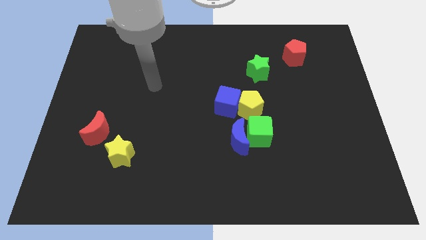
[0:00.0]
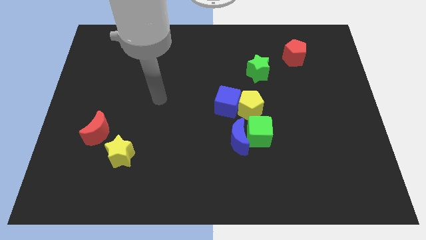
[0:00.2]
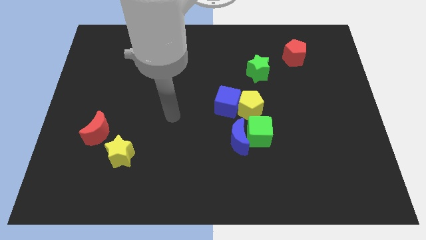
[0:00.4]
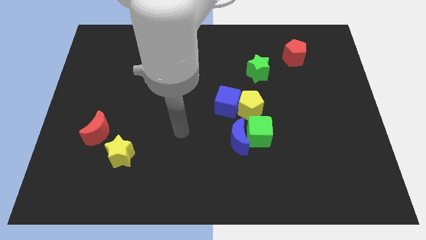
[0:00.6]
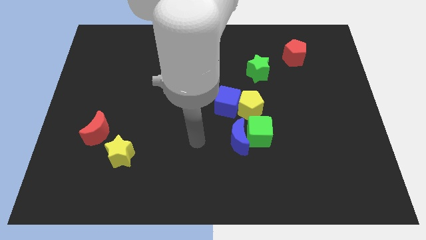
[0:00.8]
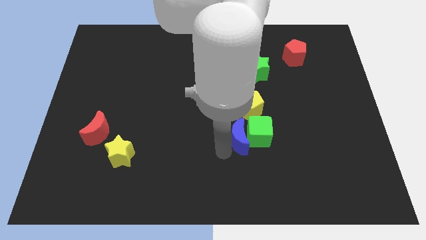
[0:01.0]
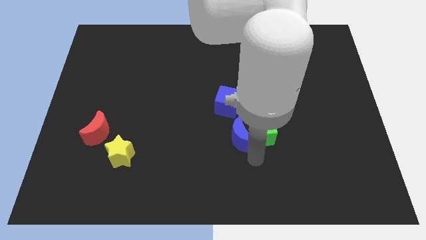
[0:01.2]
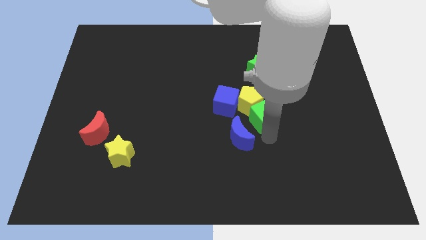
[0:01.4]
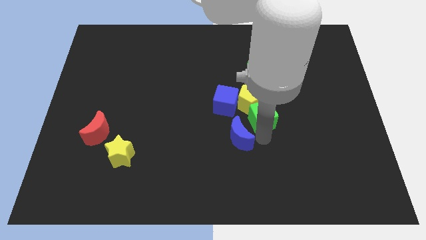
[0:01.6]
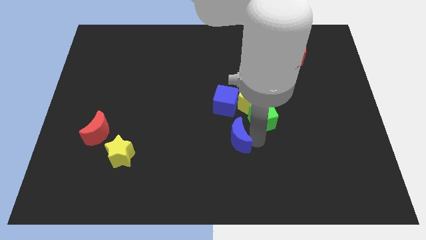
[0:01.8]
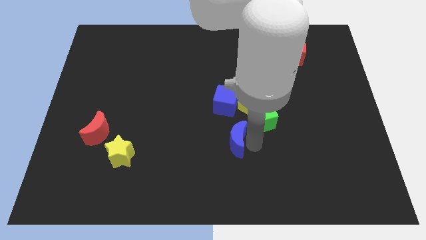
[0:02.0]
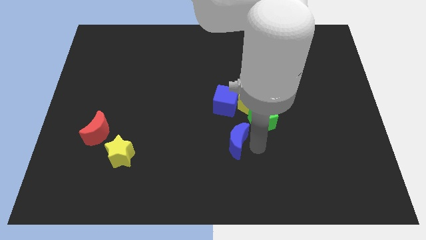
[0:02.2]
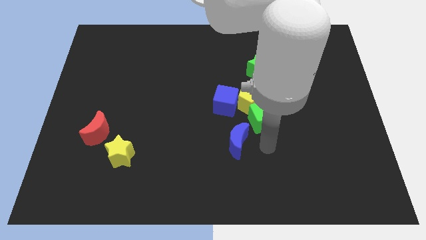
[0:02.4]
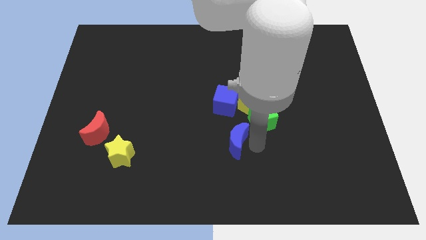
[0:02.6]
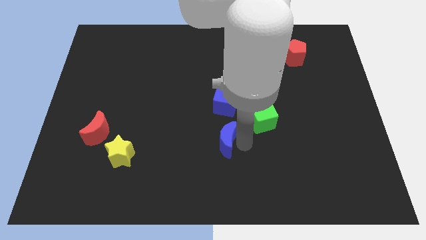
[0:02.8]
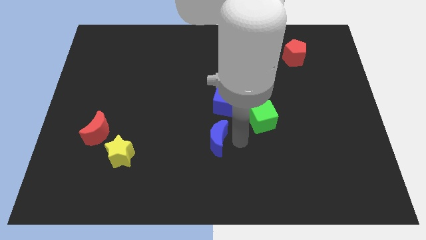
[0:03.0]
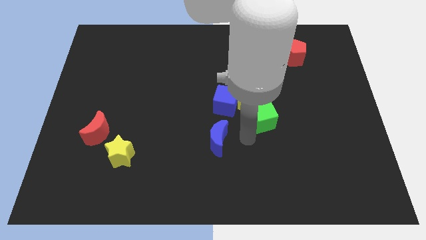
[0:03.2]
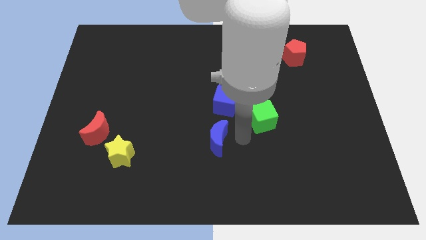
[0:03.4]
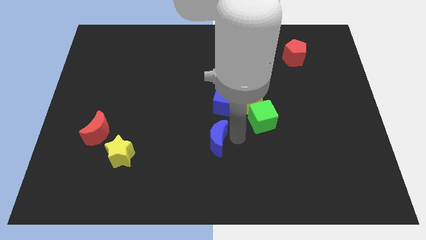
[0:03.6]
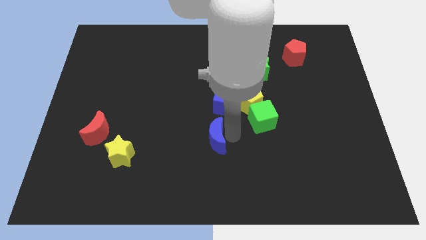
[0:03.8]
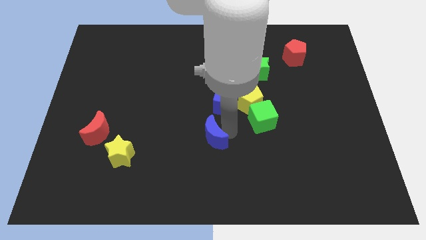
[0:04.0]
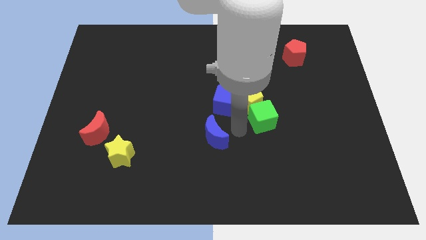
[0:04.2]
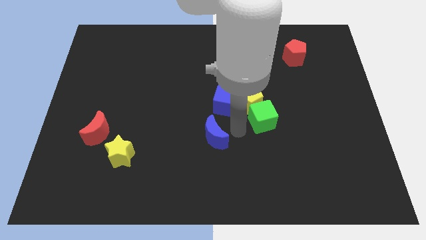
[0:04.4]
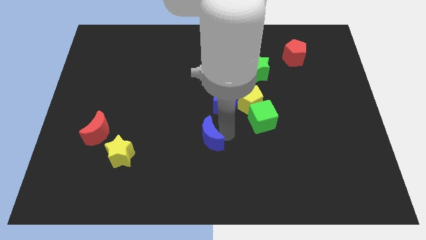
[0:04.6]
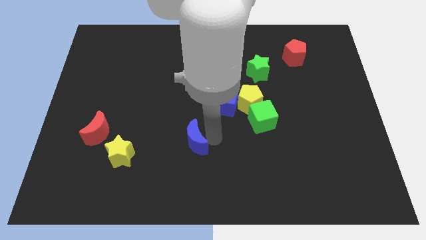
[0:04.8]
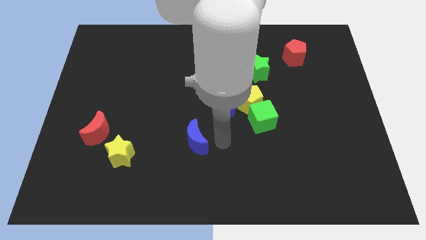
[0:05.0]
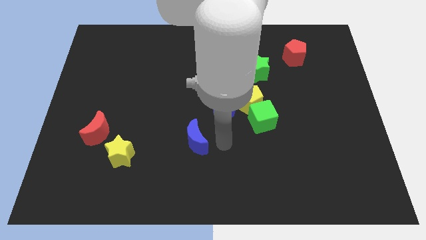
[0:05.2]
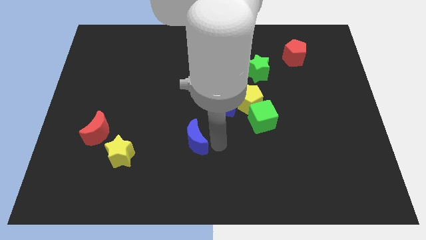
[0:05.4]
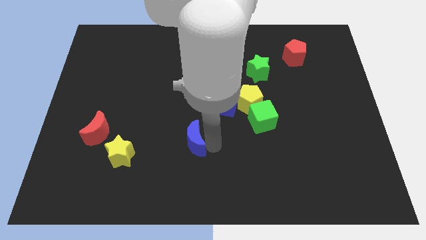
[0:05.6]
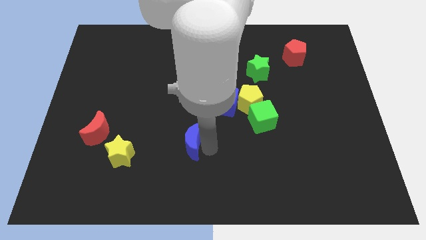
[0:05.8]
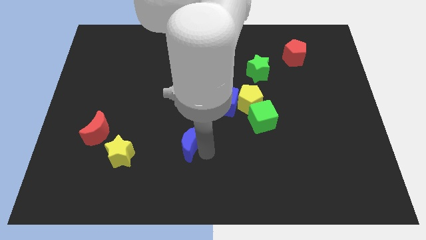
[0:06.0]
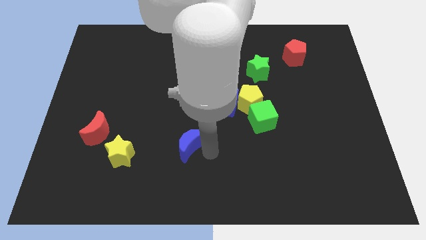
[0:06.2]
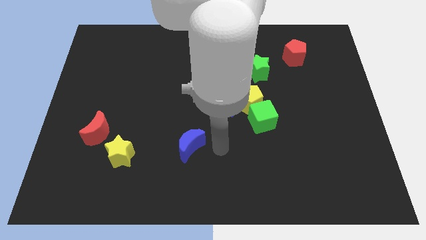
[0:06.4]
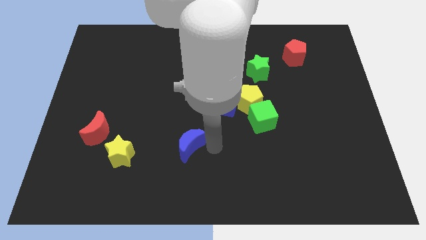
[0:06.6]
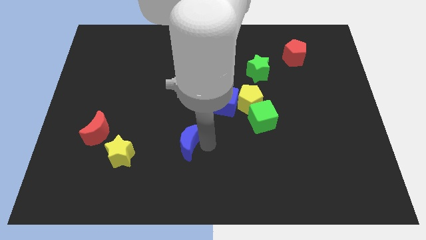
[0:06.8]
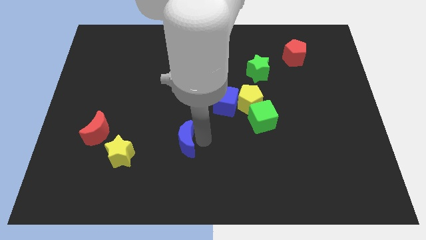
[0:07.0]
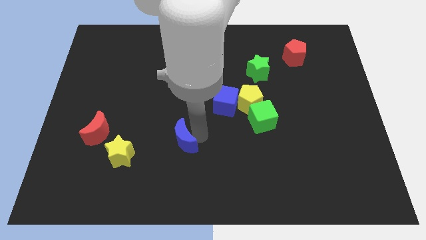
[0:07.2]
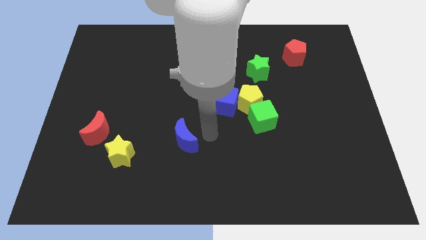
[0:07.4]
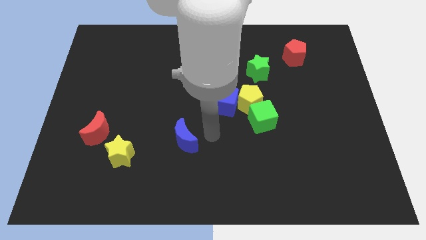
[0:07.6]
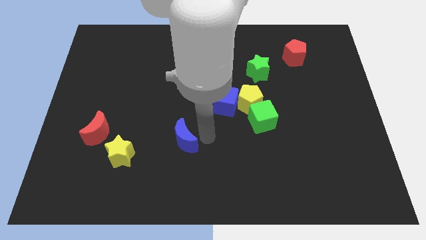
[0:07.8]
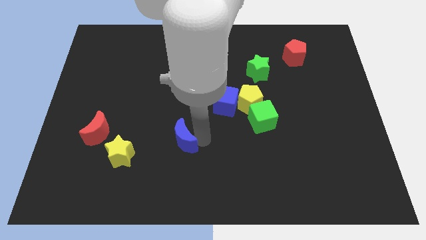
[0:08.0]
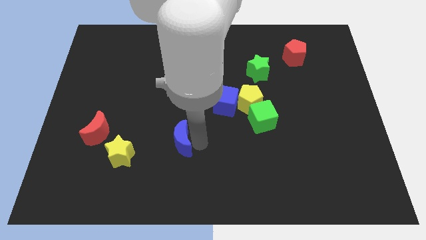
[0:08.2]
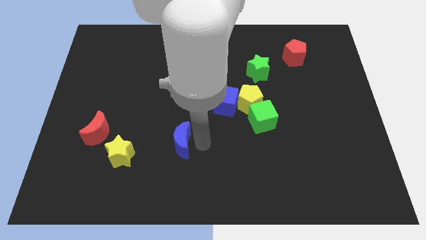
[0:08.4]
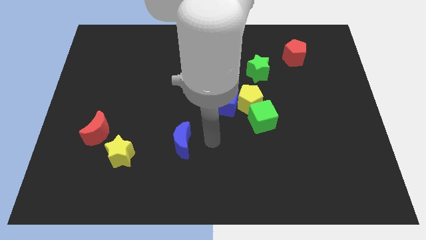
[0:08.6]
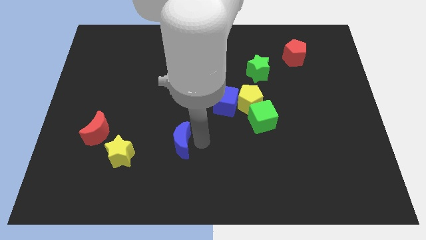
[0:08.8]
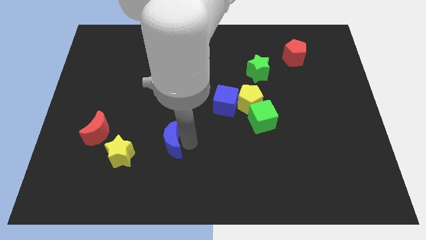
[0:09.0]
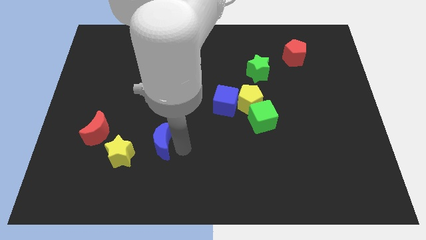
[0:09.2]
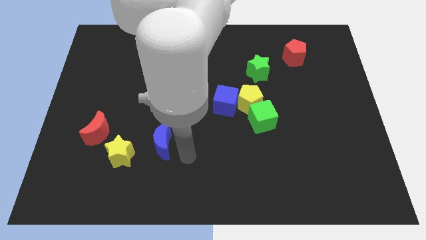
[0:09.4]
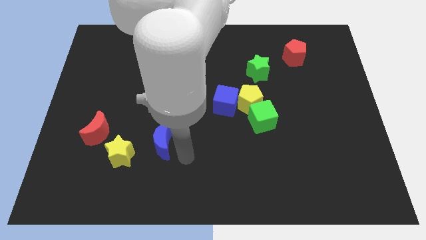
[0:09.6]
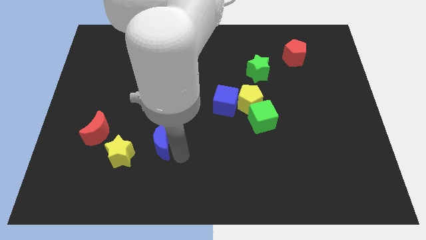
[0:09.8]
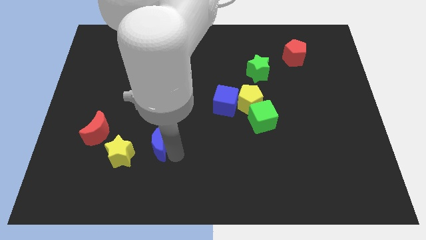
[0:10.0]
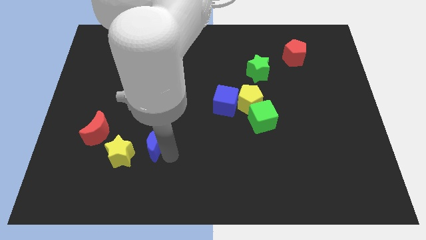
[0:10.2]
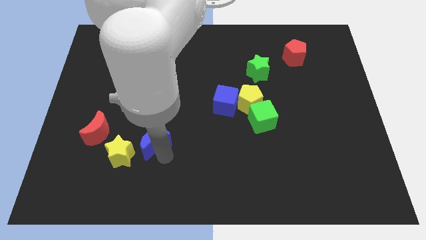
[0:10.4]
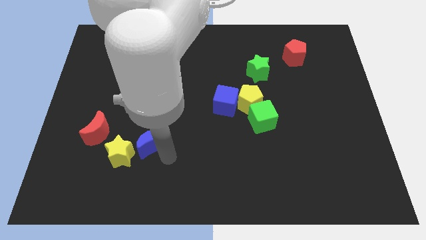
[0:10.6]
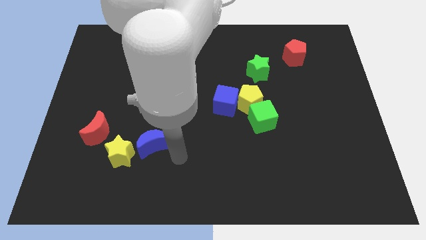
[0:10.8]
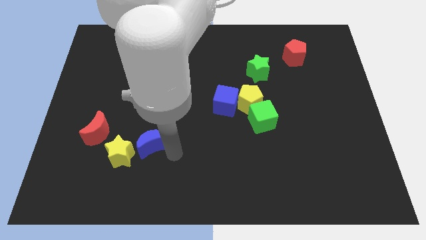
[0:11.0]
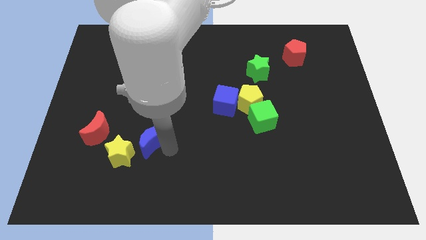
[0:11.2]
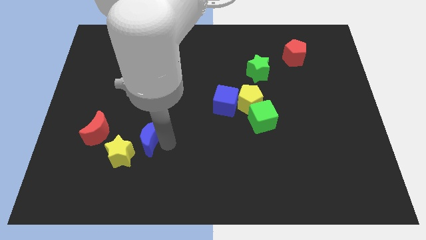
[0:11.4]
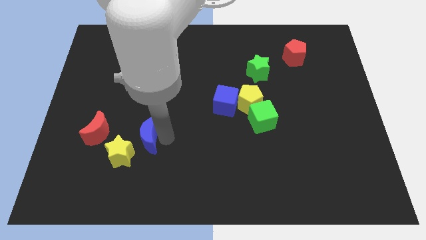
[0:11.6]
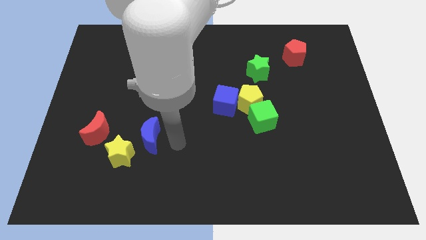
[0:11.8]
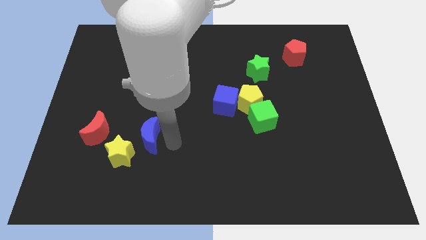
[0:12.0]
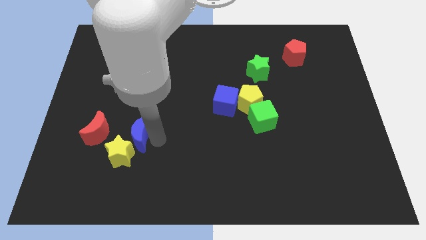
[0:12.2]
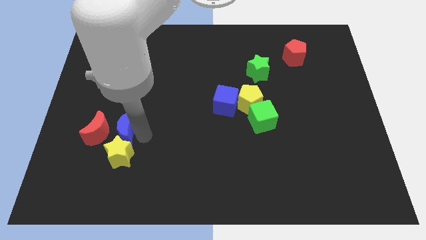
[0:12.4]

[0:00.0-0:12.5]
slide the blue moon to the red moon
